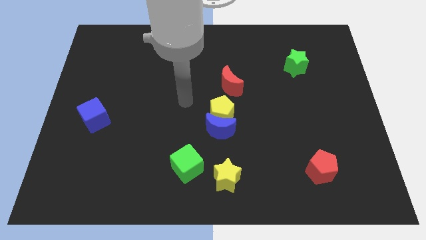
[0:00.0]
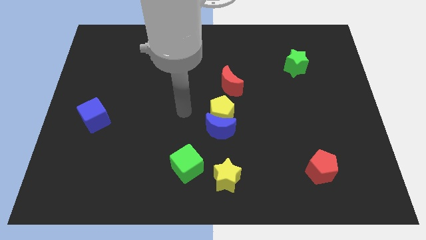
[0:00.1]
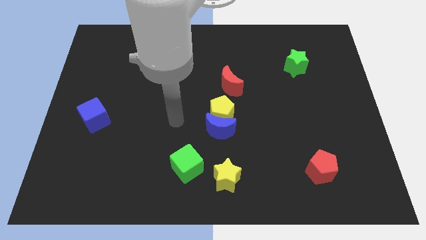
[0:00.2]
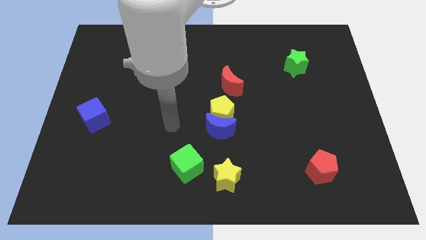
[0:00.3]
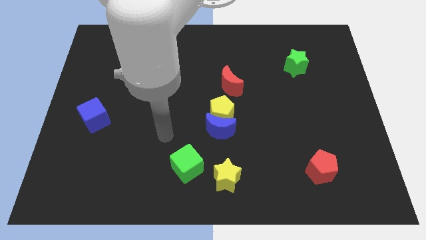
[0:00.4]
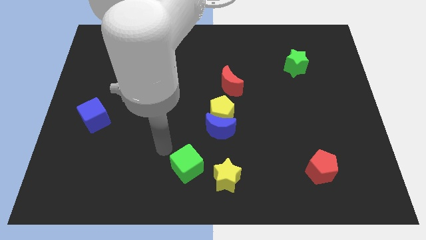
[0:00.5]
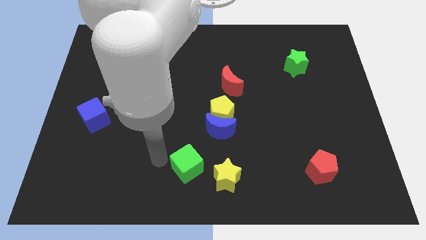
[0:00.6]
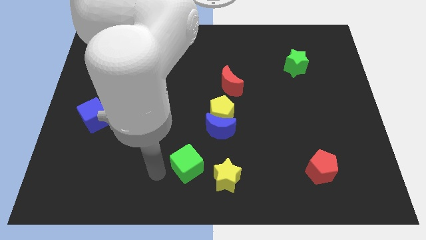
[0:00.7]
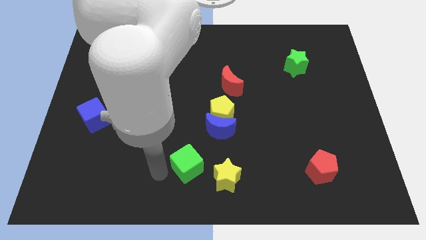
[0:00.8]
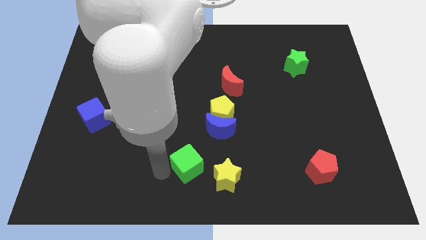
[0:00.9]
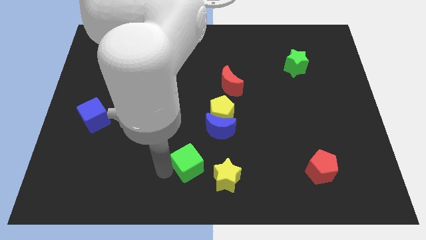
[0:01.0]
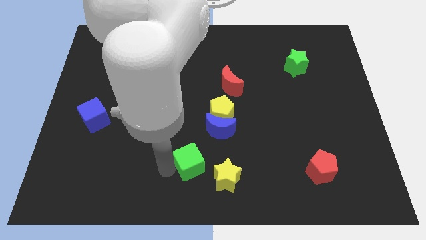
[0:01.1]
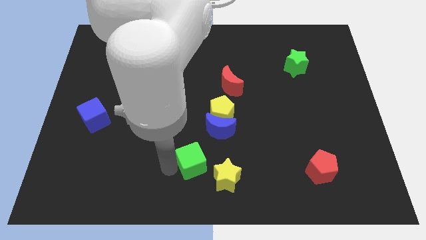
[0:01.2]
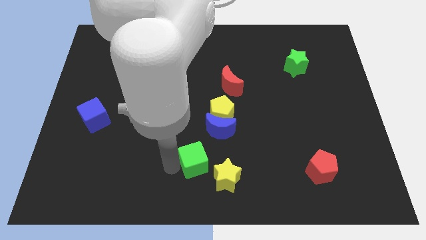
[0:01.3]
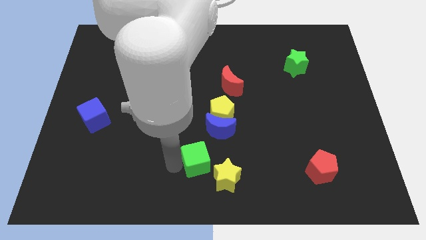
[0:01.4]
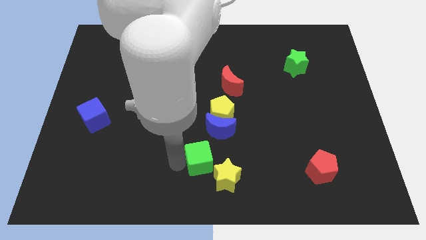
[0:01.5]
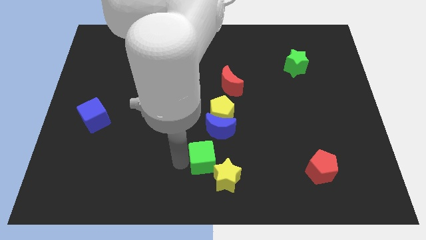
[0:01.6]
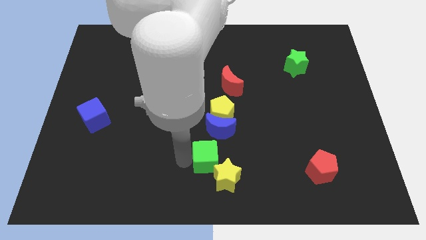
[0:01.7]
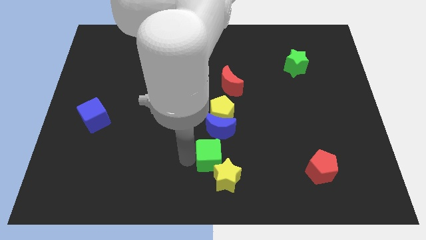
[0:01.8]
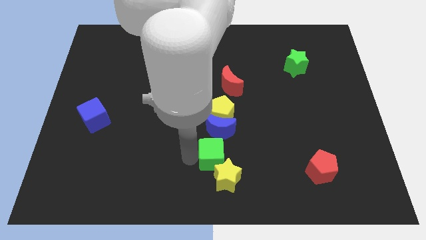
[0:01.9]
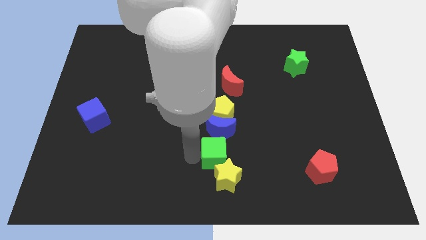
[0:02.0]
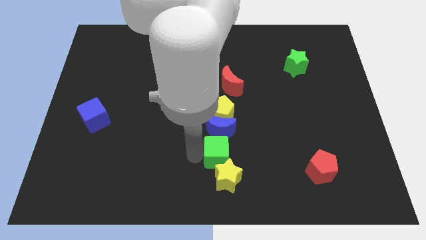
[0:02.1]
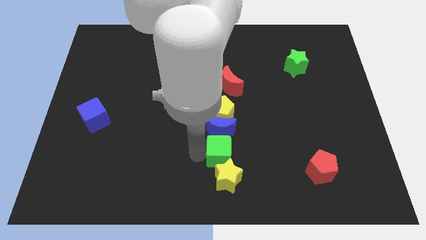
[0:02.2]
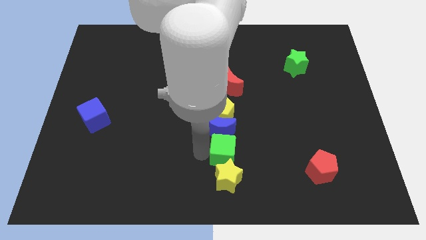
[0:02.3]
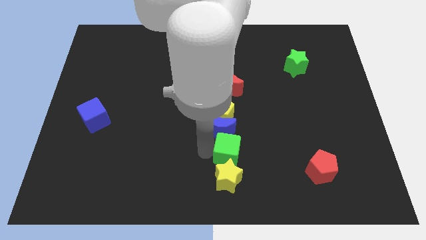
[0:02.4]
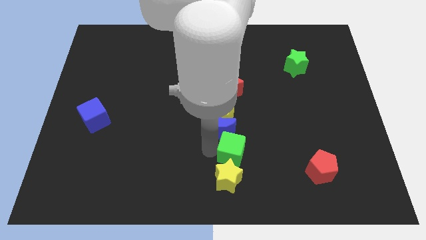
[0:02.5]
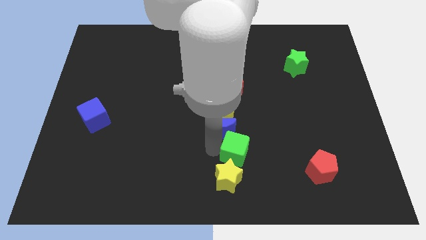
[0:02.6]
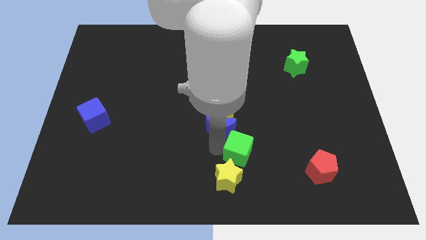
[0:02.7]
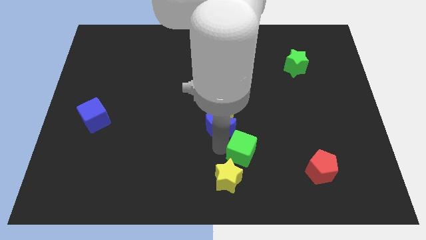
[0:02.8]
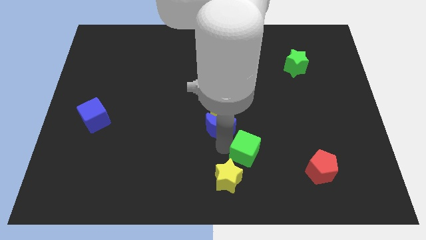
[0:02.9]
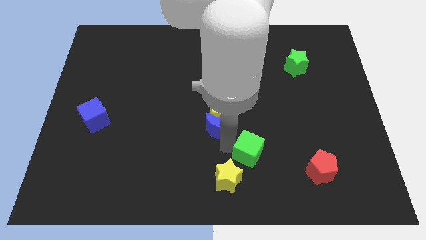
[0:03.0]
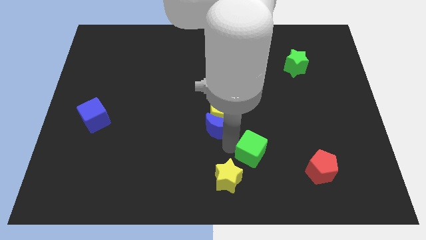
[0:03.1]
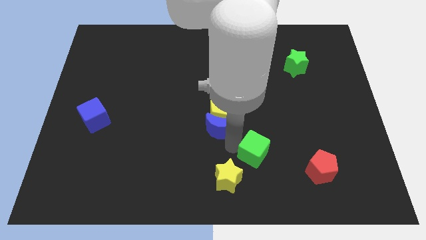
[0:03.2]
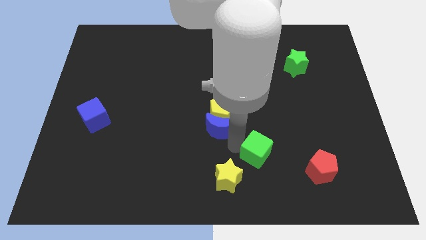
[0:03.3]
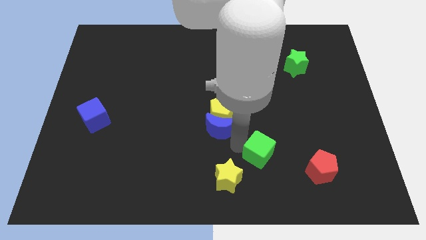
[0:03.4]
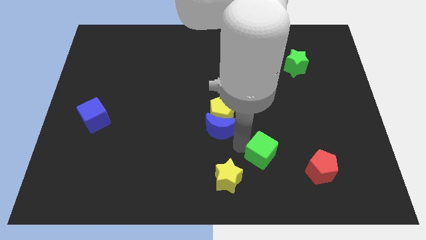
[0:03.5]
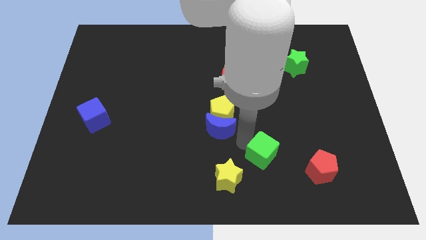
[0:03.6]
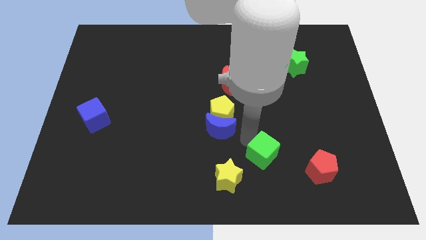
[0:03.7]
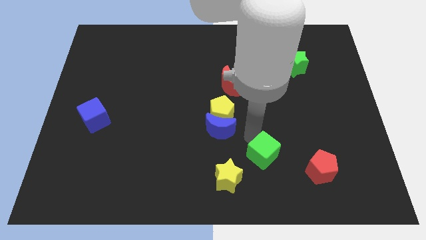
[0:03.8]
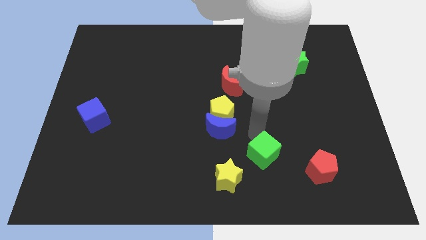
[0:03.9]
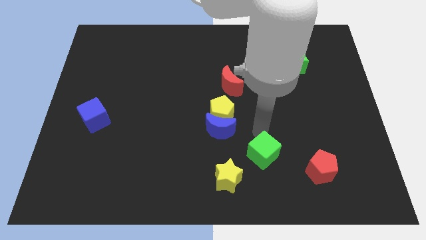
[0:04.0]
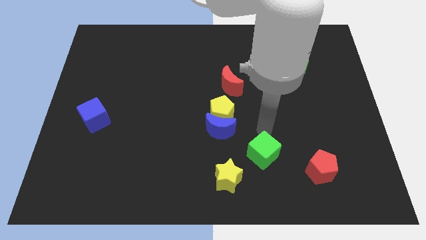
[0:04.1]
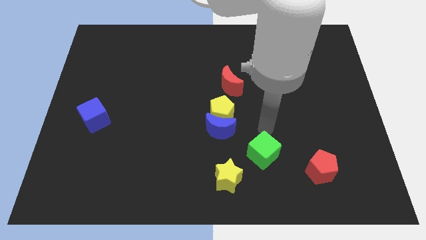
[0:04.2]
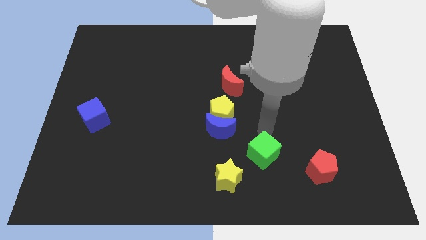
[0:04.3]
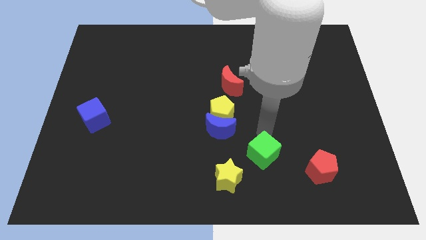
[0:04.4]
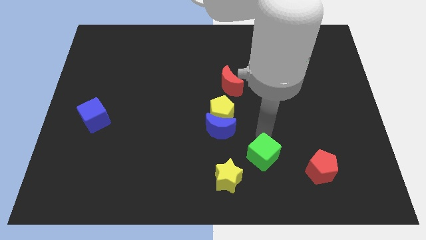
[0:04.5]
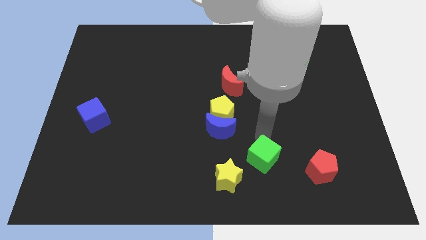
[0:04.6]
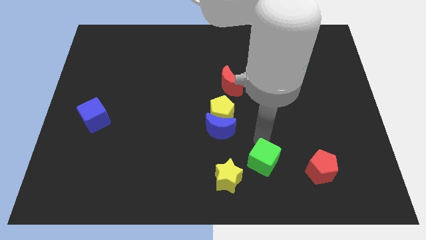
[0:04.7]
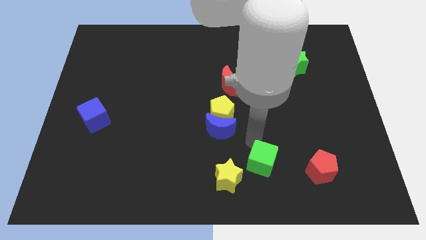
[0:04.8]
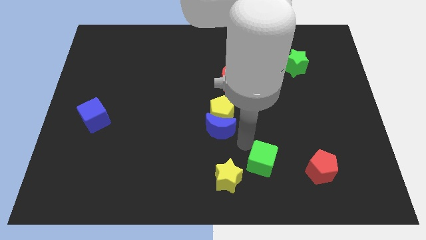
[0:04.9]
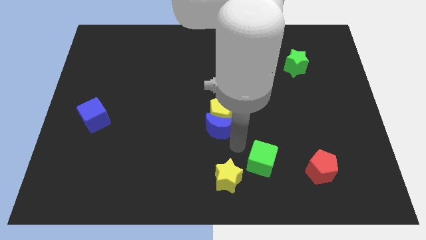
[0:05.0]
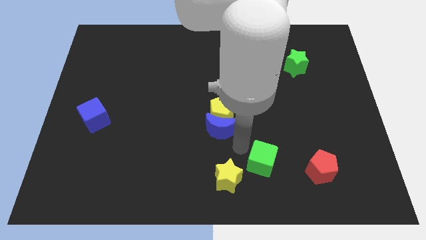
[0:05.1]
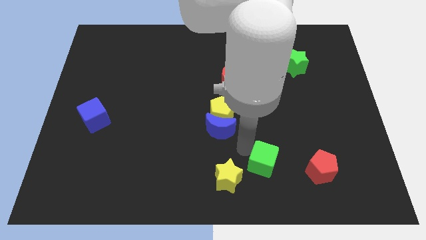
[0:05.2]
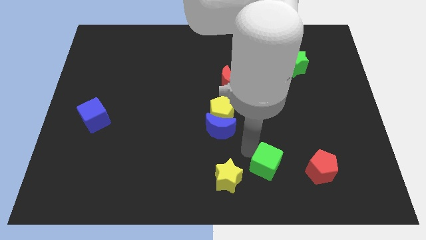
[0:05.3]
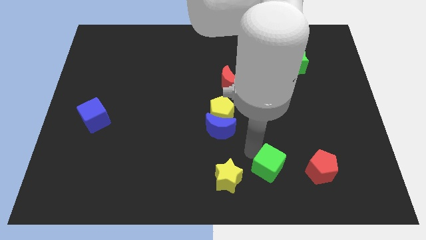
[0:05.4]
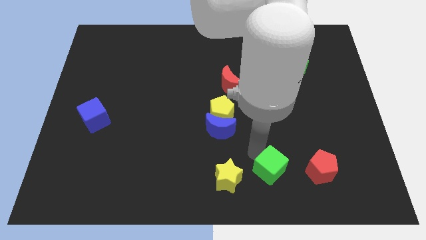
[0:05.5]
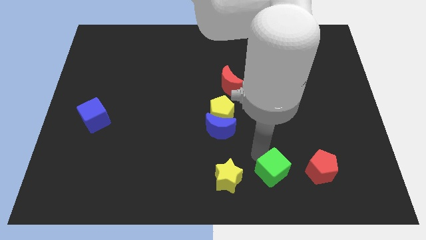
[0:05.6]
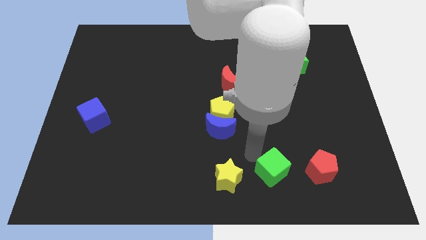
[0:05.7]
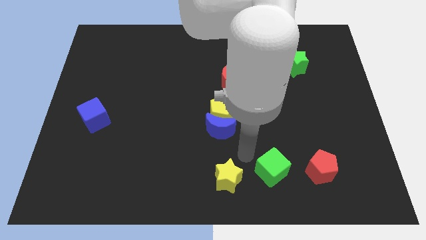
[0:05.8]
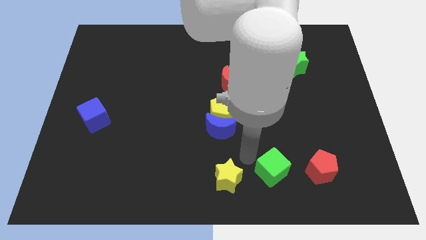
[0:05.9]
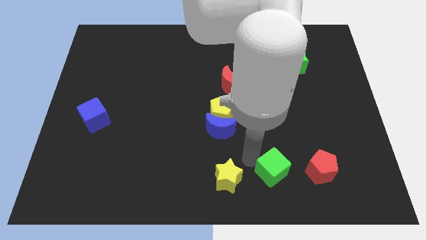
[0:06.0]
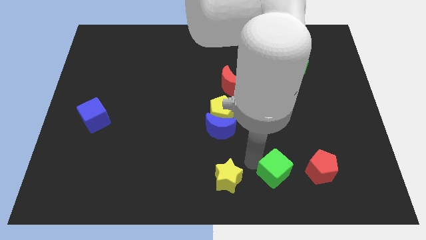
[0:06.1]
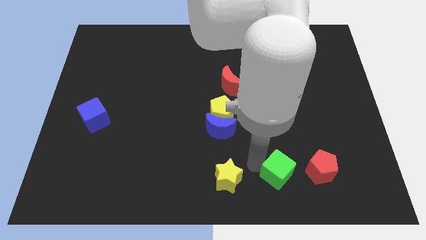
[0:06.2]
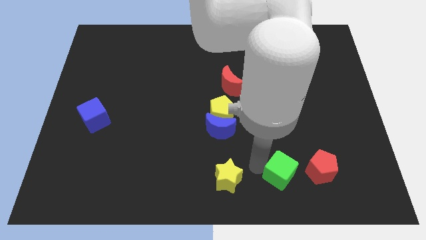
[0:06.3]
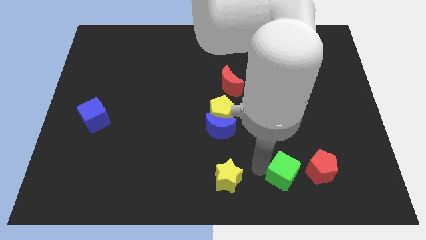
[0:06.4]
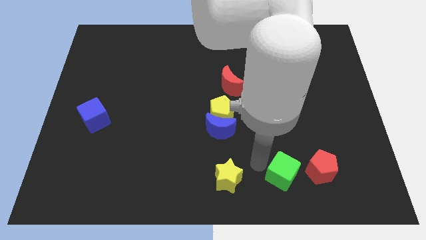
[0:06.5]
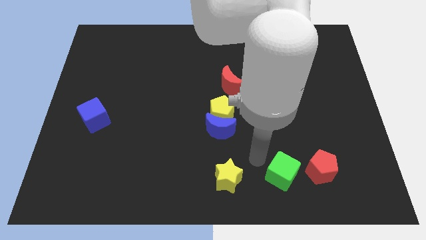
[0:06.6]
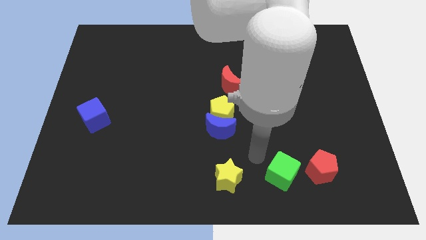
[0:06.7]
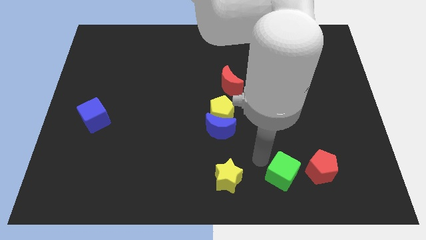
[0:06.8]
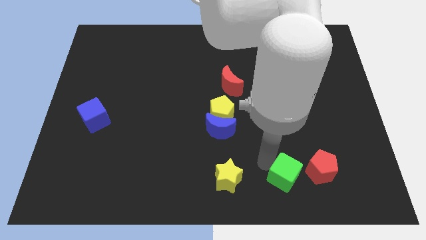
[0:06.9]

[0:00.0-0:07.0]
push the green cube right

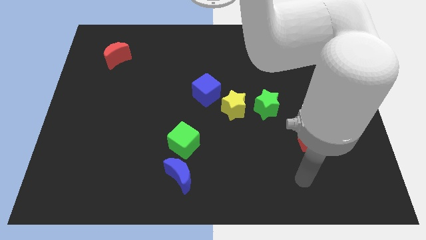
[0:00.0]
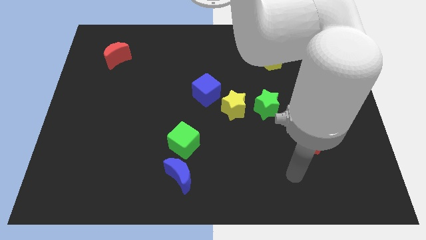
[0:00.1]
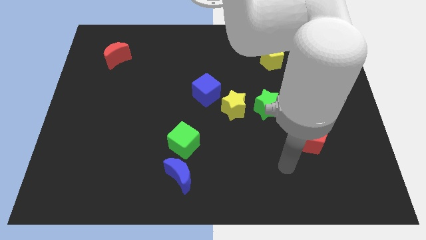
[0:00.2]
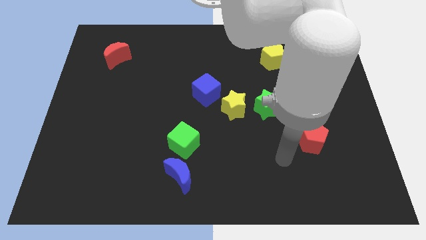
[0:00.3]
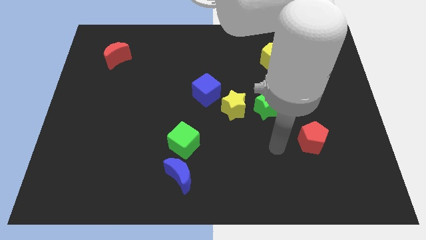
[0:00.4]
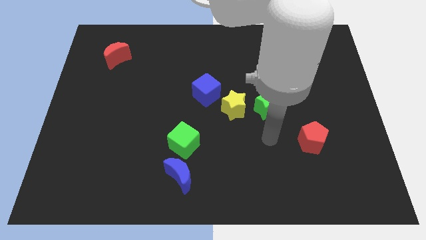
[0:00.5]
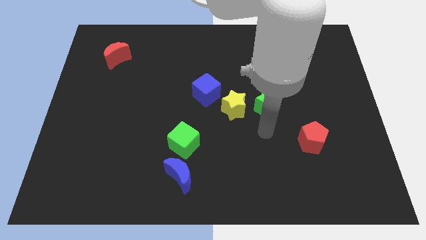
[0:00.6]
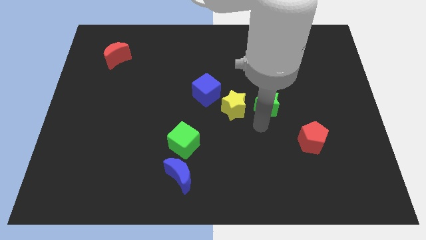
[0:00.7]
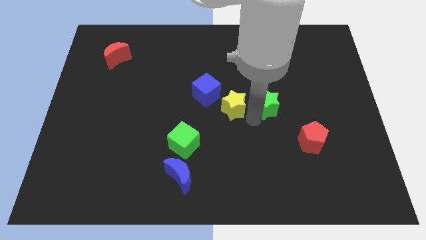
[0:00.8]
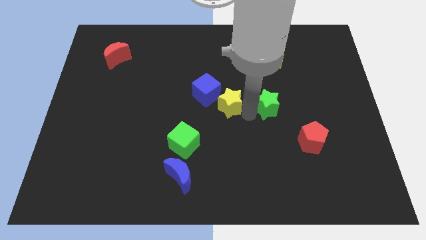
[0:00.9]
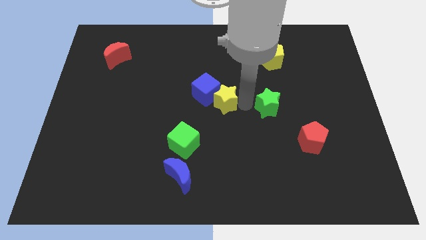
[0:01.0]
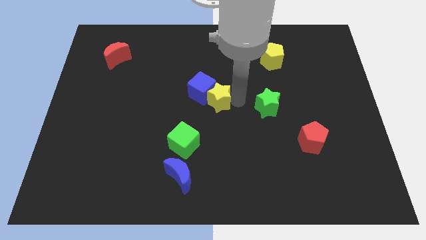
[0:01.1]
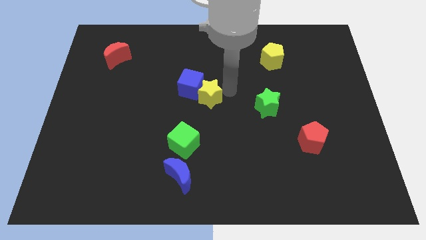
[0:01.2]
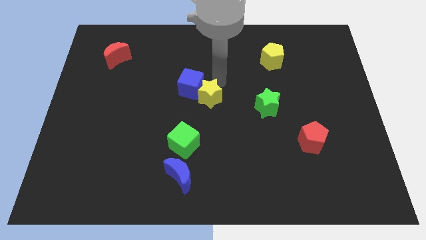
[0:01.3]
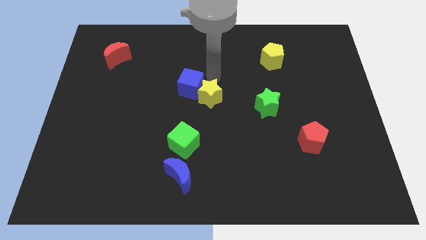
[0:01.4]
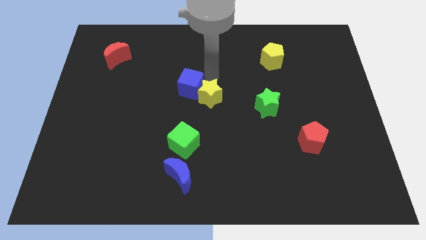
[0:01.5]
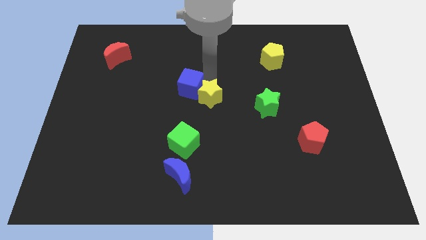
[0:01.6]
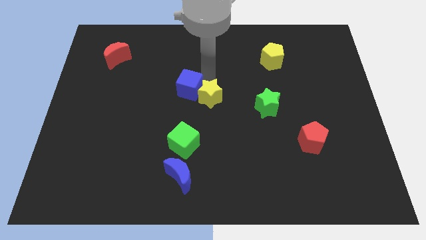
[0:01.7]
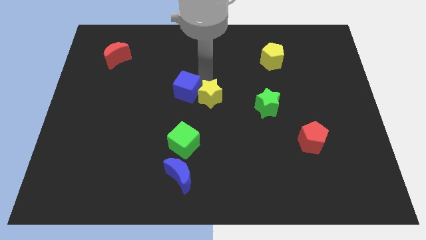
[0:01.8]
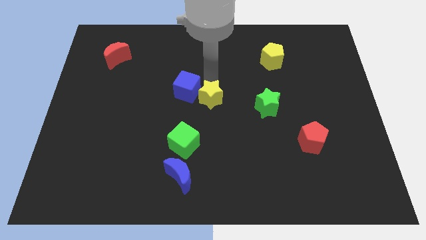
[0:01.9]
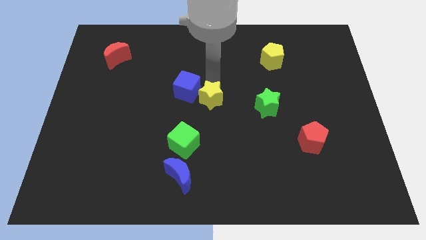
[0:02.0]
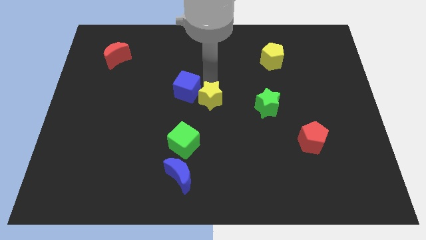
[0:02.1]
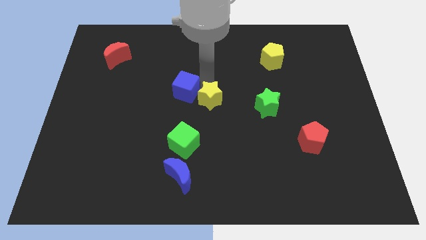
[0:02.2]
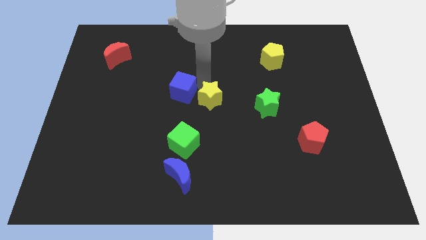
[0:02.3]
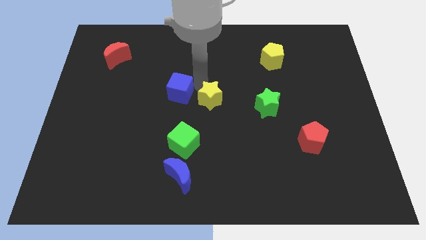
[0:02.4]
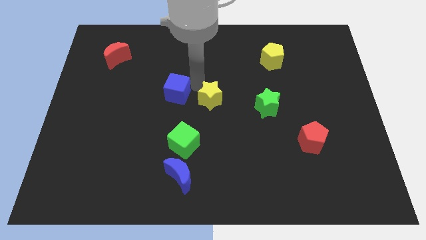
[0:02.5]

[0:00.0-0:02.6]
slide the blue cube left somewhat
